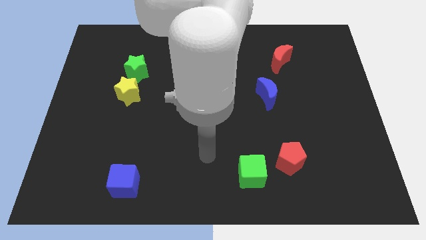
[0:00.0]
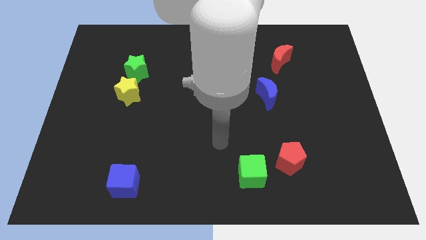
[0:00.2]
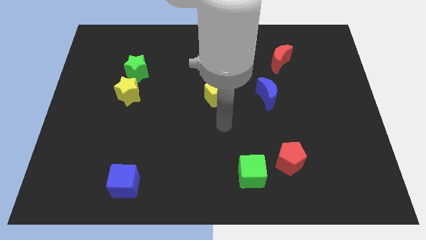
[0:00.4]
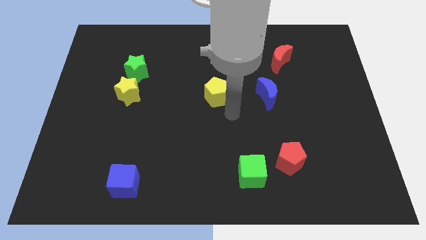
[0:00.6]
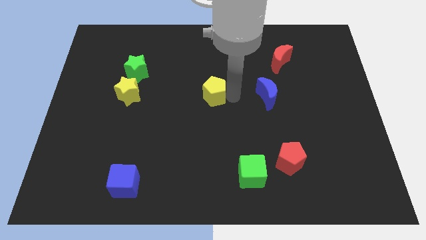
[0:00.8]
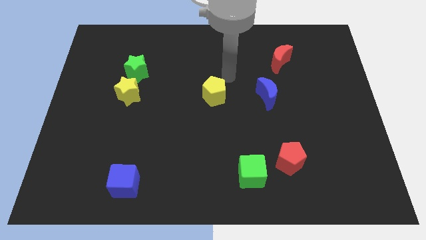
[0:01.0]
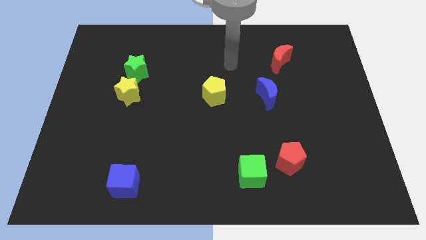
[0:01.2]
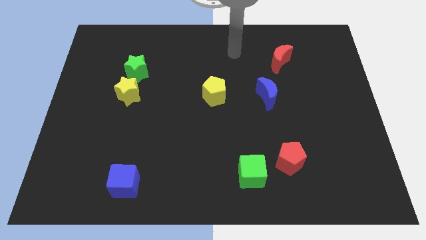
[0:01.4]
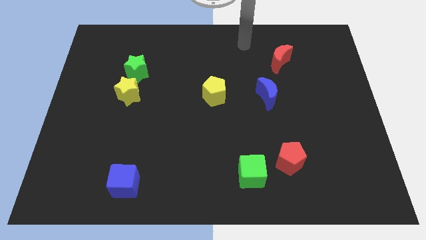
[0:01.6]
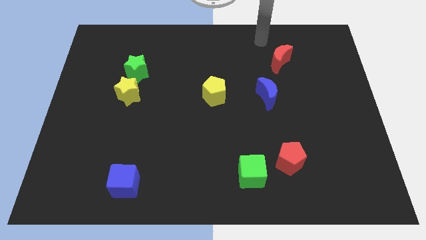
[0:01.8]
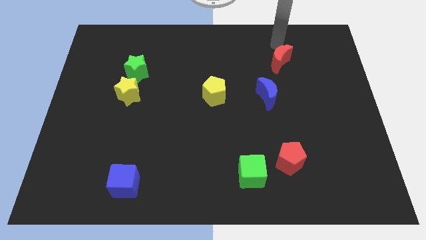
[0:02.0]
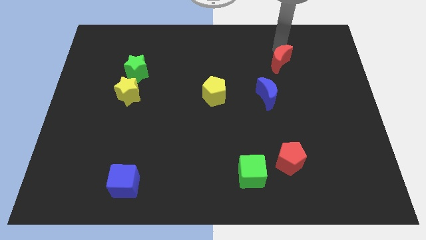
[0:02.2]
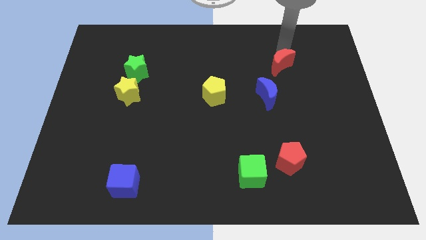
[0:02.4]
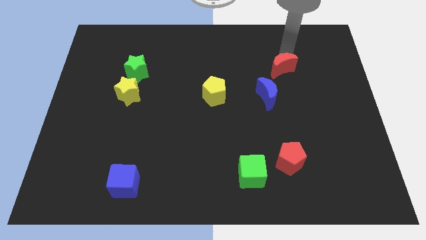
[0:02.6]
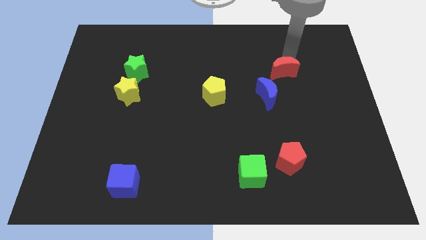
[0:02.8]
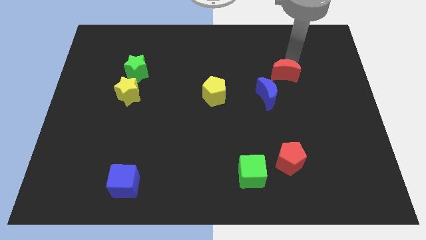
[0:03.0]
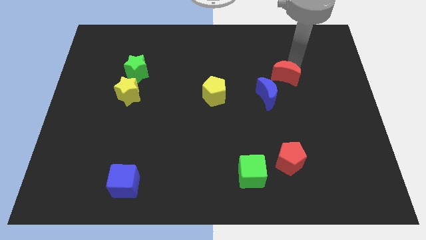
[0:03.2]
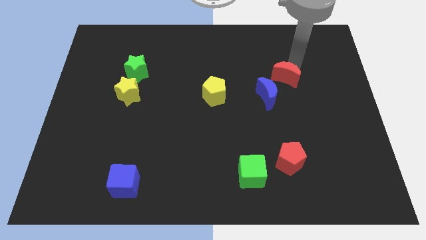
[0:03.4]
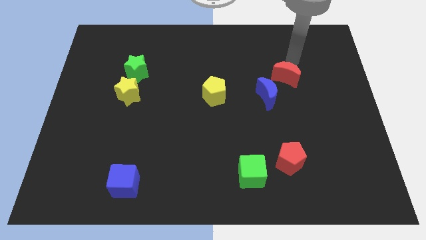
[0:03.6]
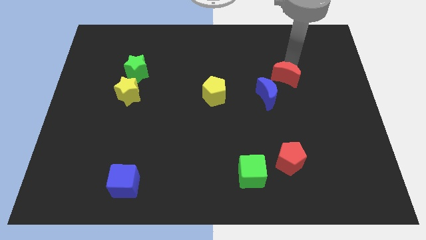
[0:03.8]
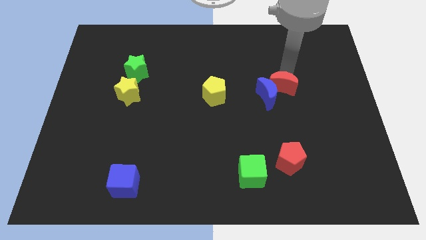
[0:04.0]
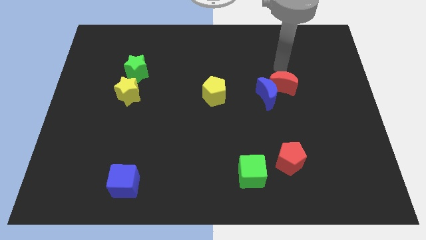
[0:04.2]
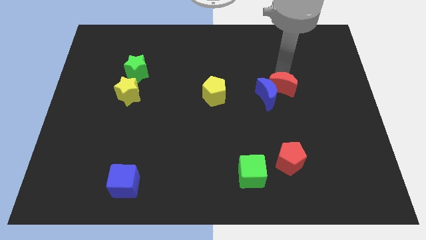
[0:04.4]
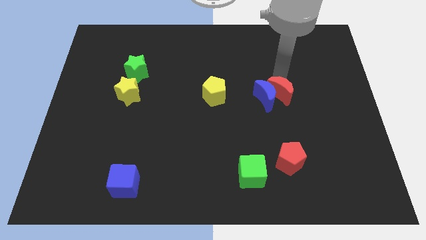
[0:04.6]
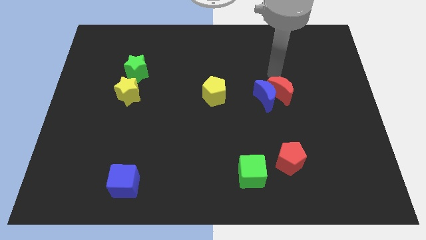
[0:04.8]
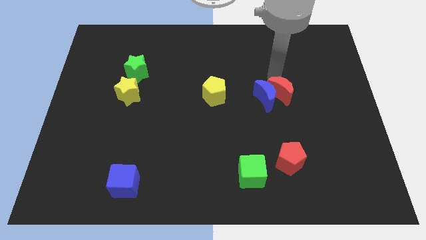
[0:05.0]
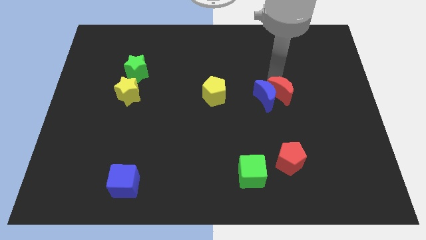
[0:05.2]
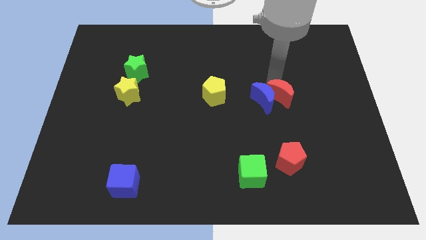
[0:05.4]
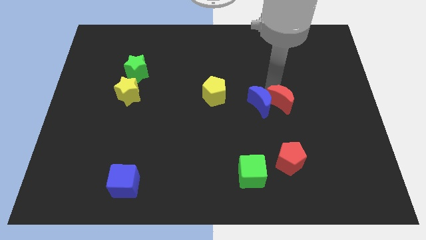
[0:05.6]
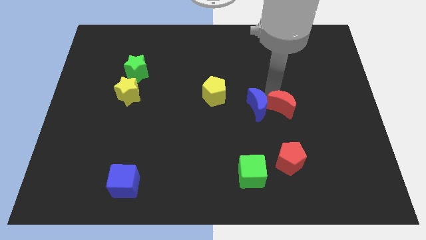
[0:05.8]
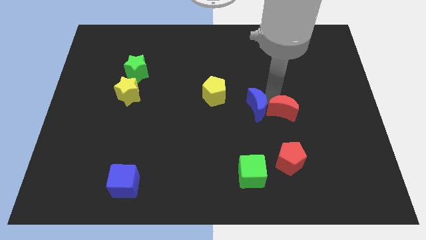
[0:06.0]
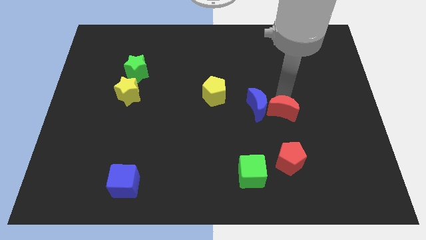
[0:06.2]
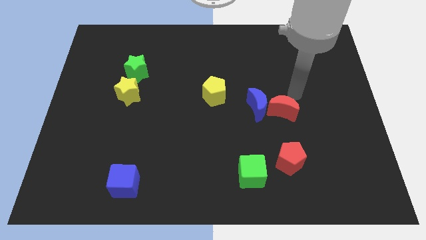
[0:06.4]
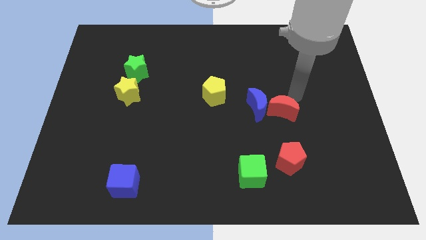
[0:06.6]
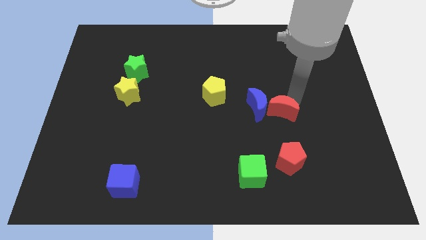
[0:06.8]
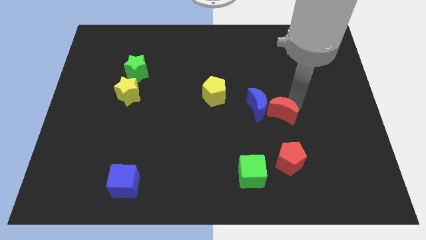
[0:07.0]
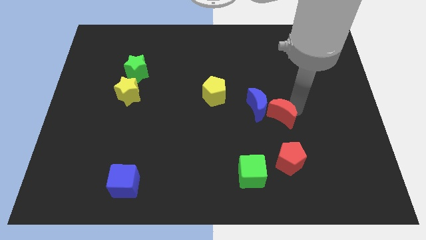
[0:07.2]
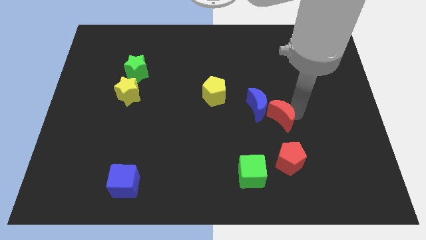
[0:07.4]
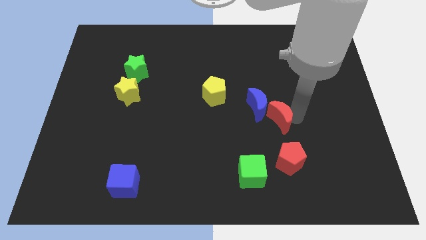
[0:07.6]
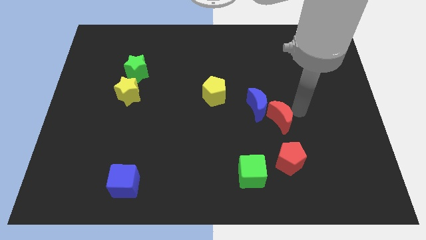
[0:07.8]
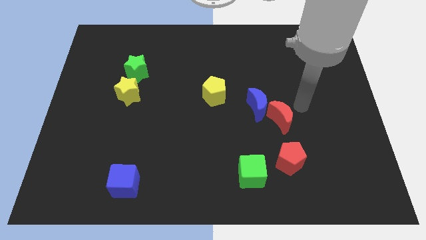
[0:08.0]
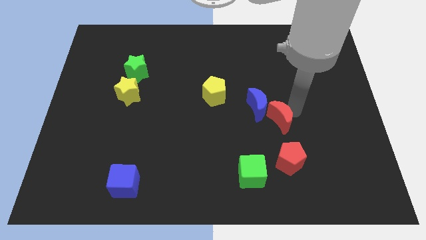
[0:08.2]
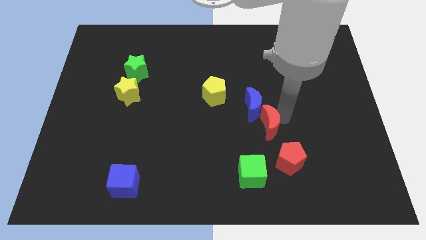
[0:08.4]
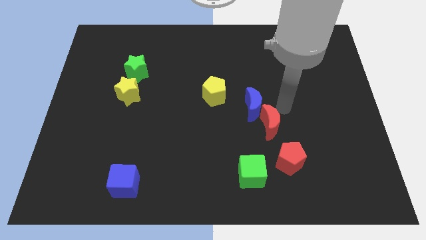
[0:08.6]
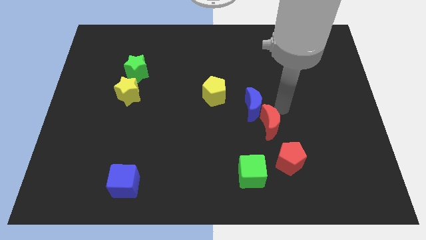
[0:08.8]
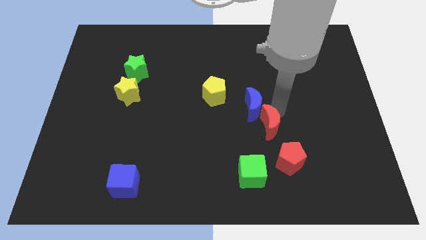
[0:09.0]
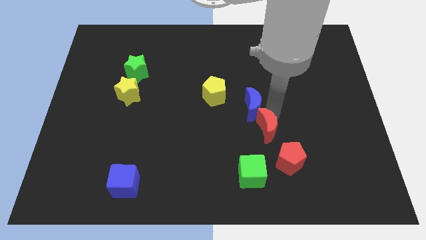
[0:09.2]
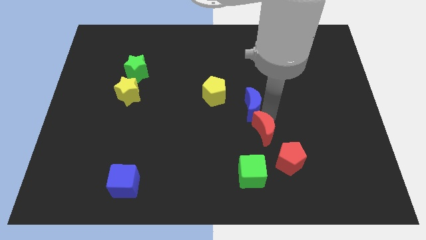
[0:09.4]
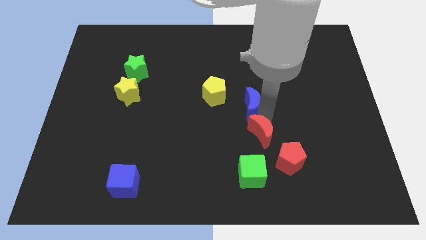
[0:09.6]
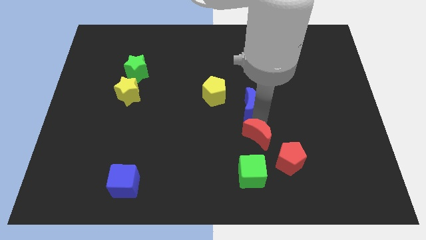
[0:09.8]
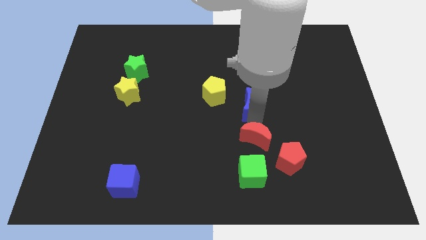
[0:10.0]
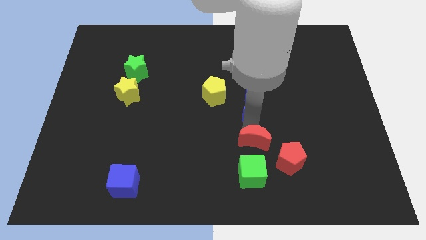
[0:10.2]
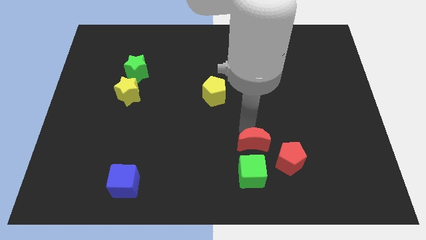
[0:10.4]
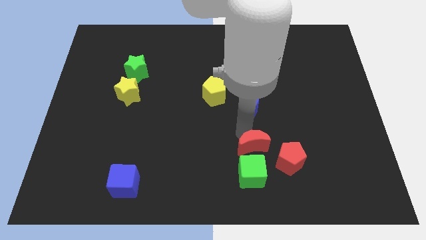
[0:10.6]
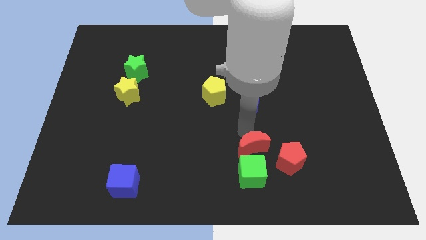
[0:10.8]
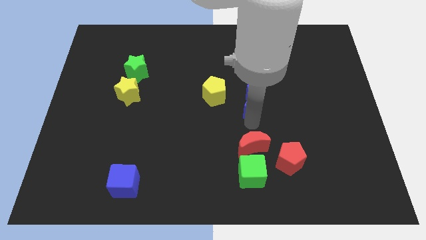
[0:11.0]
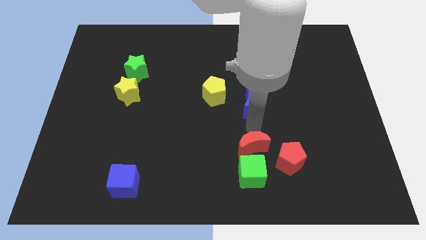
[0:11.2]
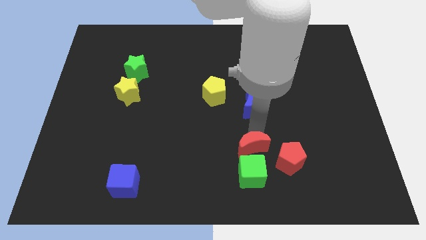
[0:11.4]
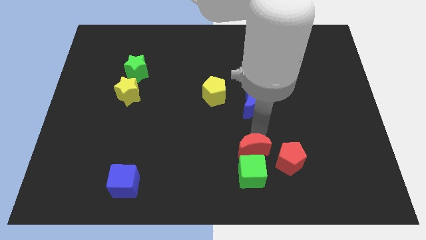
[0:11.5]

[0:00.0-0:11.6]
push the red moon towards the green cube

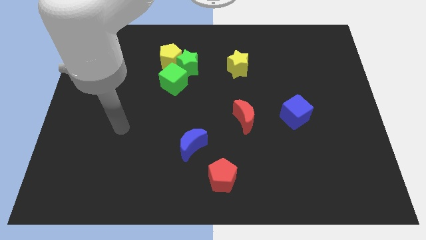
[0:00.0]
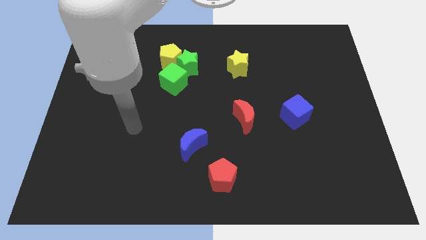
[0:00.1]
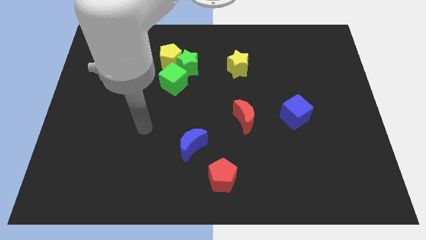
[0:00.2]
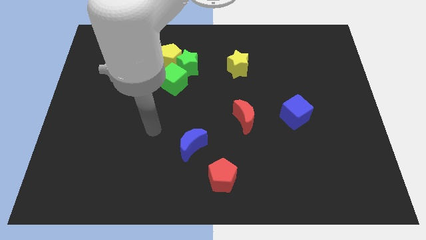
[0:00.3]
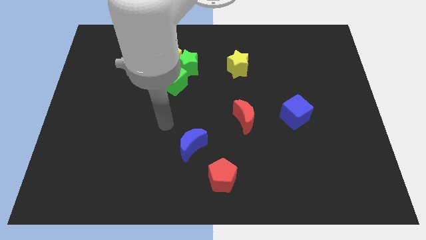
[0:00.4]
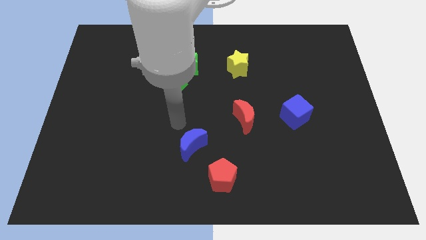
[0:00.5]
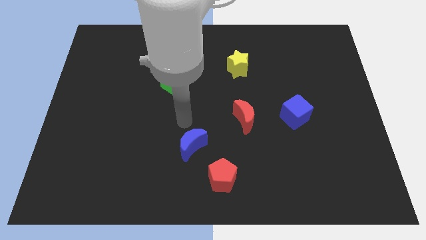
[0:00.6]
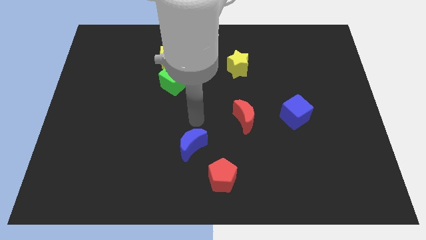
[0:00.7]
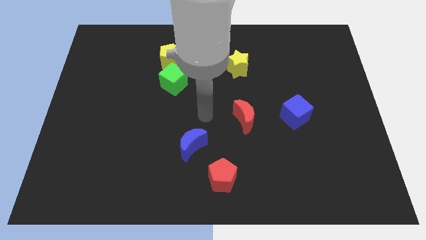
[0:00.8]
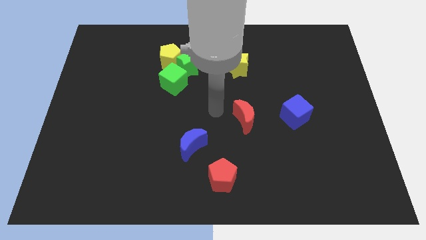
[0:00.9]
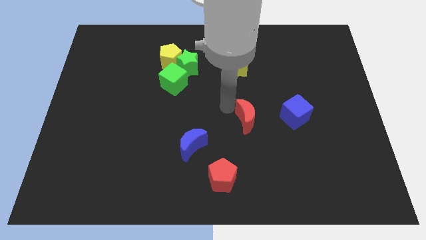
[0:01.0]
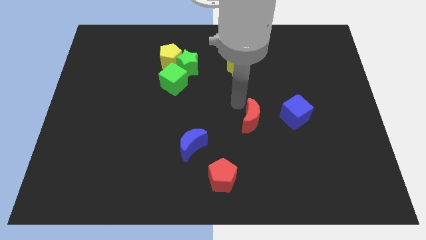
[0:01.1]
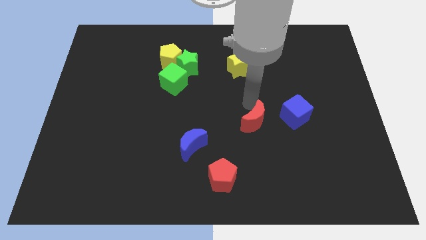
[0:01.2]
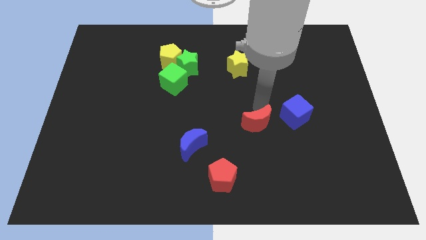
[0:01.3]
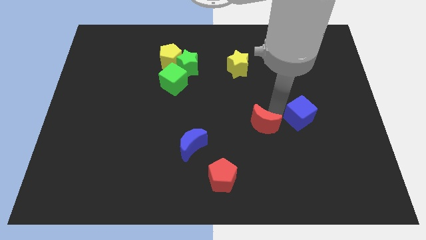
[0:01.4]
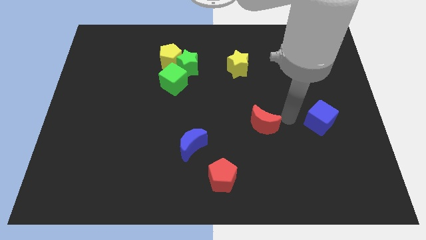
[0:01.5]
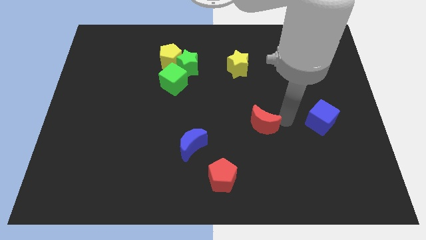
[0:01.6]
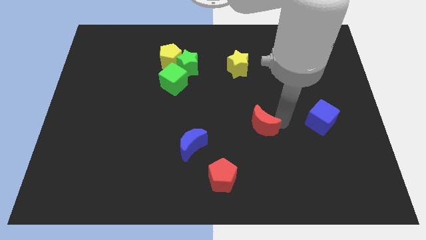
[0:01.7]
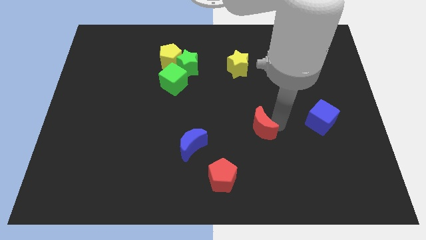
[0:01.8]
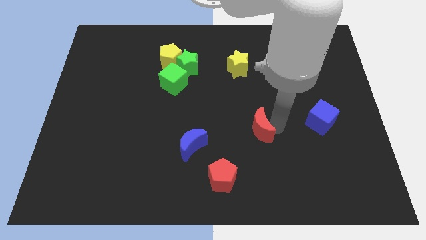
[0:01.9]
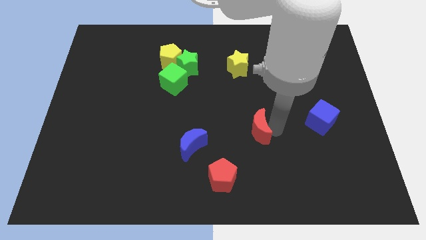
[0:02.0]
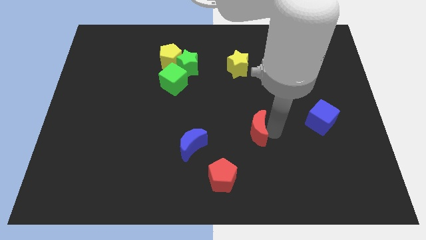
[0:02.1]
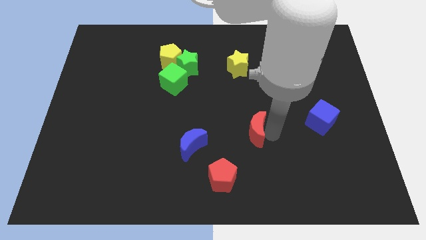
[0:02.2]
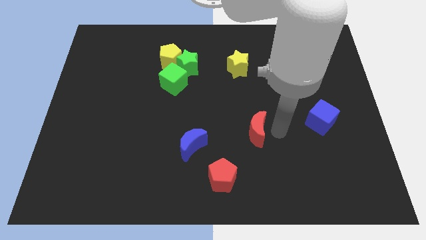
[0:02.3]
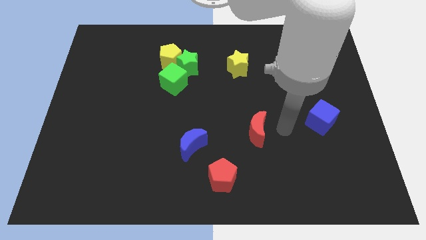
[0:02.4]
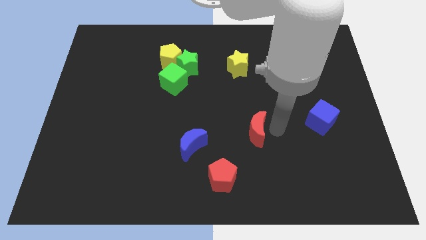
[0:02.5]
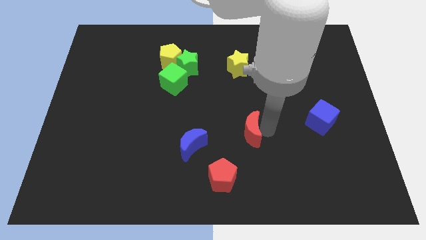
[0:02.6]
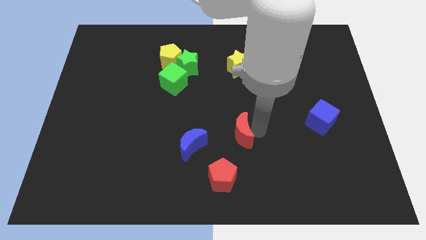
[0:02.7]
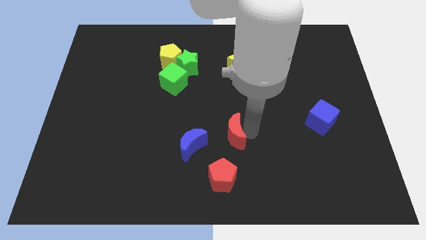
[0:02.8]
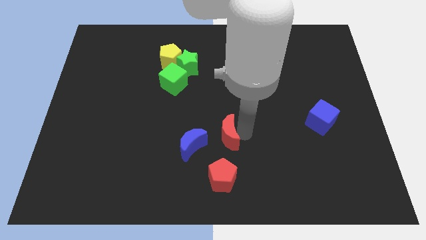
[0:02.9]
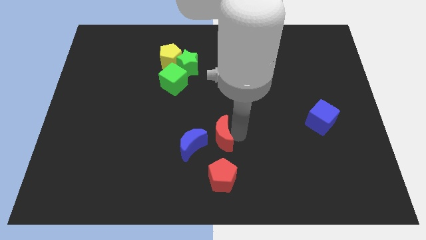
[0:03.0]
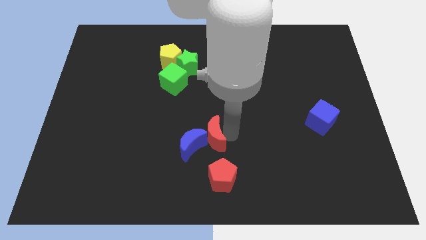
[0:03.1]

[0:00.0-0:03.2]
move the red moon next to the blue moon
